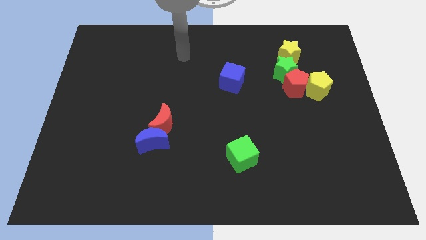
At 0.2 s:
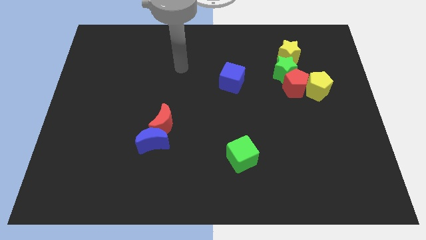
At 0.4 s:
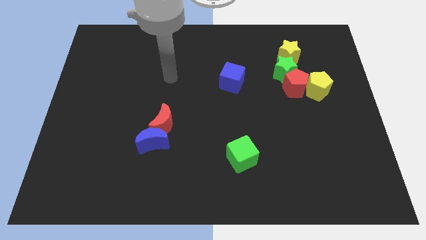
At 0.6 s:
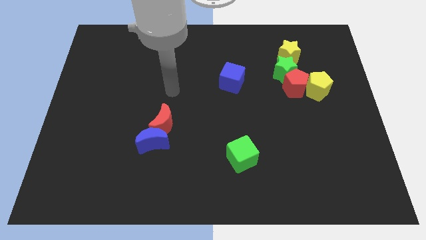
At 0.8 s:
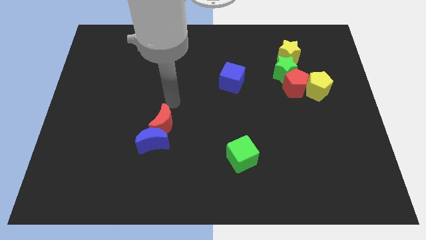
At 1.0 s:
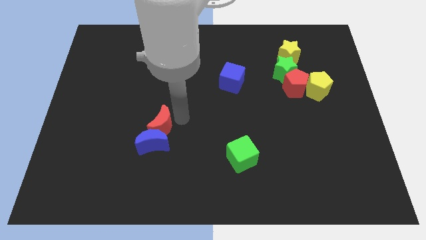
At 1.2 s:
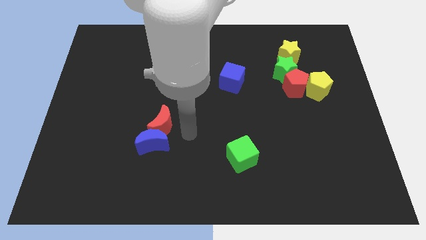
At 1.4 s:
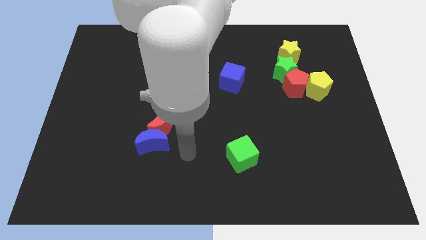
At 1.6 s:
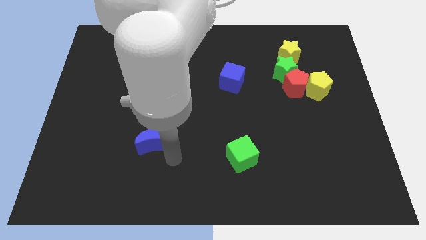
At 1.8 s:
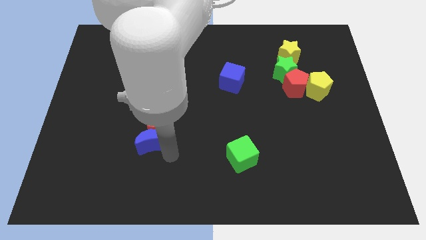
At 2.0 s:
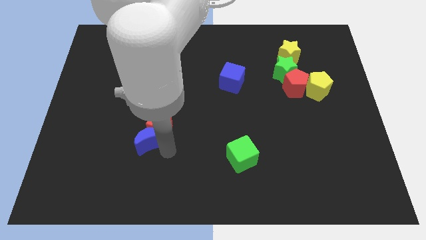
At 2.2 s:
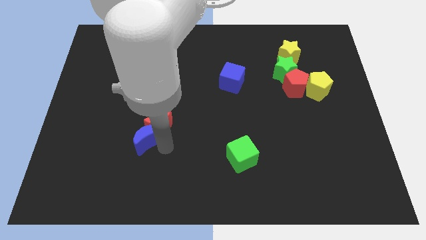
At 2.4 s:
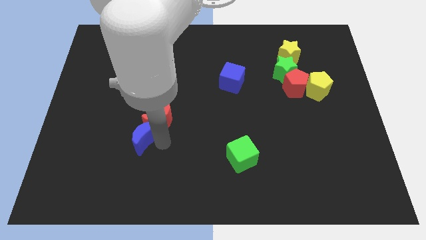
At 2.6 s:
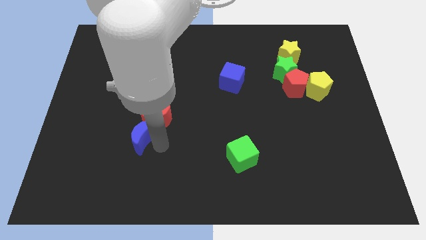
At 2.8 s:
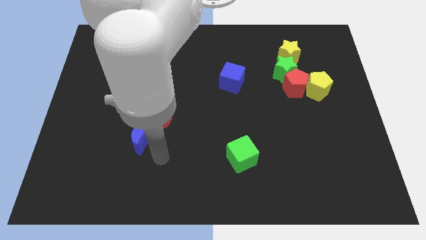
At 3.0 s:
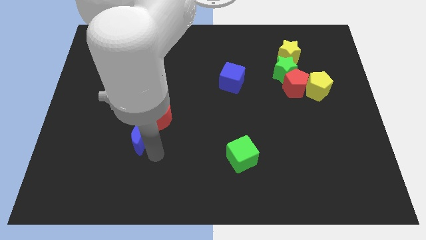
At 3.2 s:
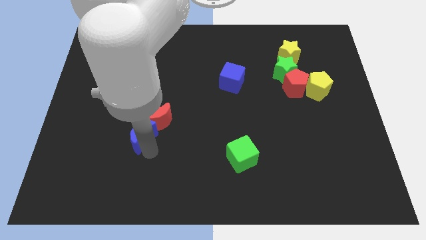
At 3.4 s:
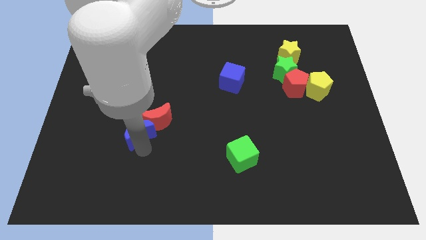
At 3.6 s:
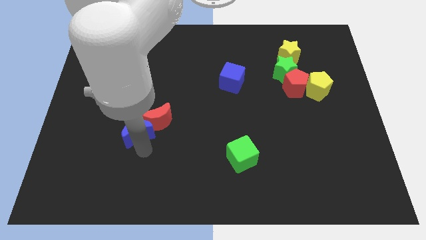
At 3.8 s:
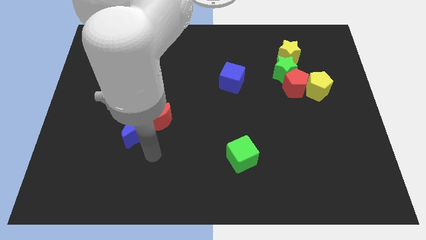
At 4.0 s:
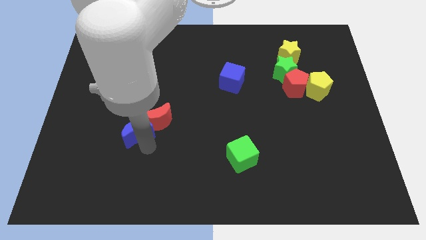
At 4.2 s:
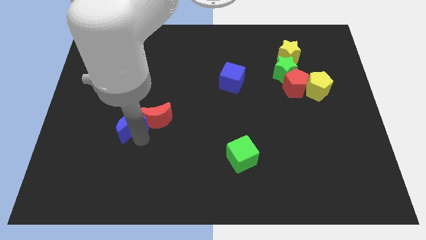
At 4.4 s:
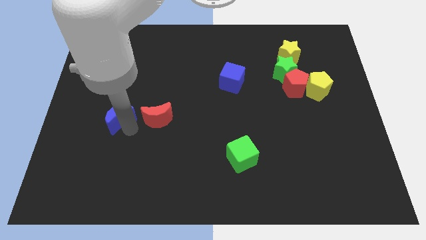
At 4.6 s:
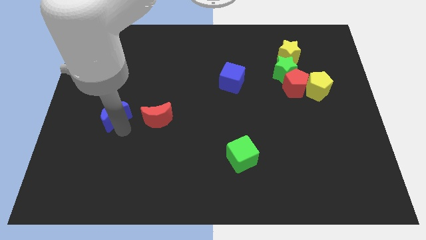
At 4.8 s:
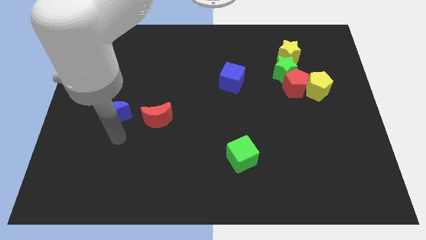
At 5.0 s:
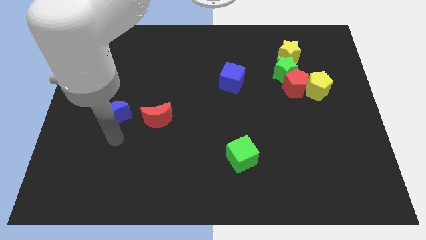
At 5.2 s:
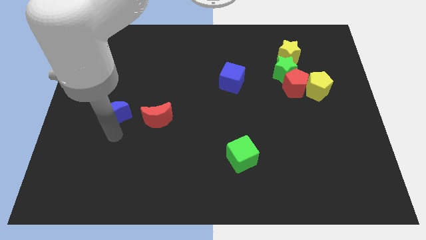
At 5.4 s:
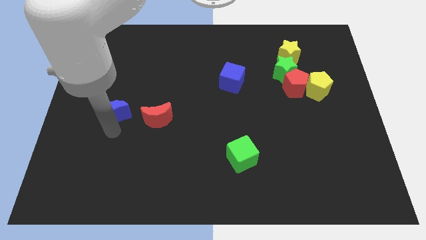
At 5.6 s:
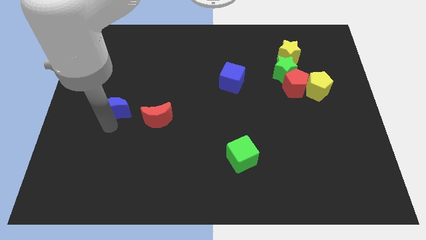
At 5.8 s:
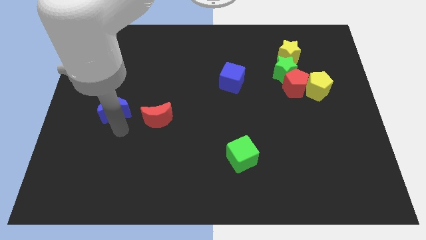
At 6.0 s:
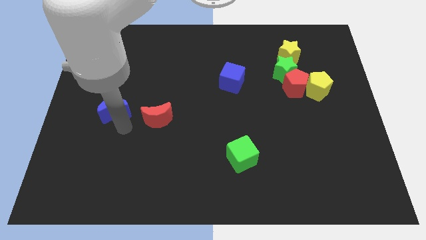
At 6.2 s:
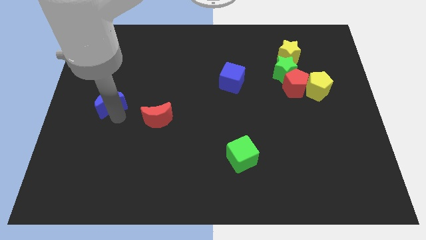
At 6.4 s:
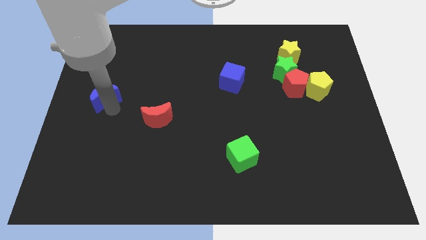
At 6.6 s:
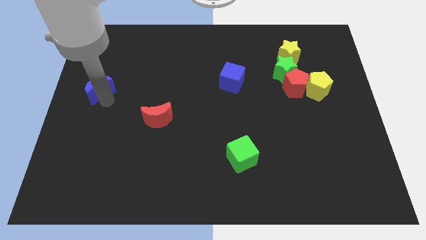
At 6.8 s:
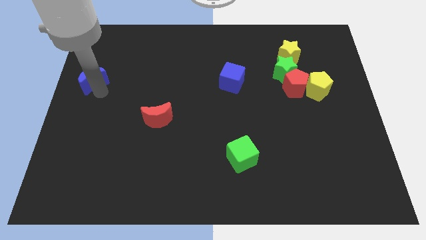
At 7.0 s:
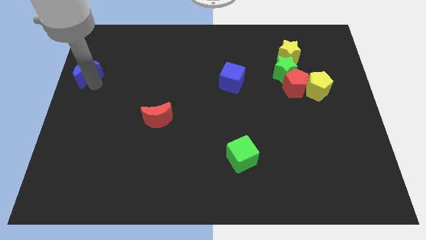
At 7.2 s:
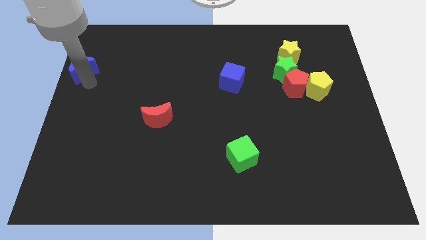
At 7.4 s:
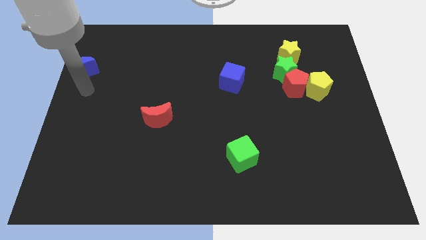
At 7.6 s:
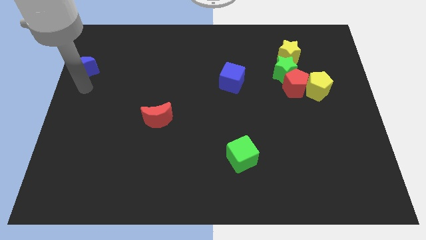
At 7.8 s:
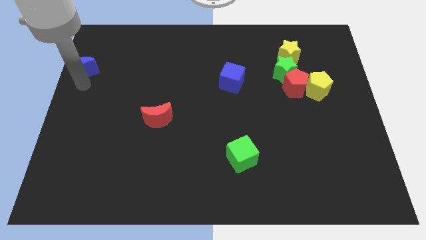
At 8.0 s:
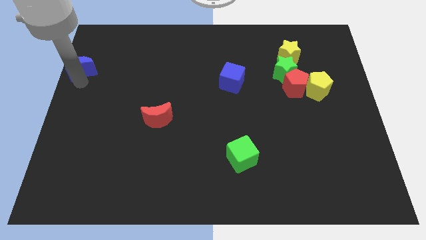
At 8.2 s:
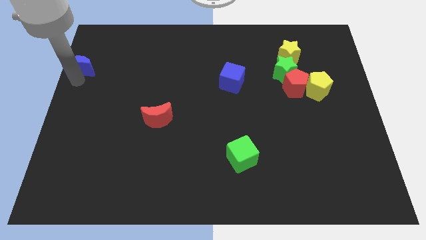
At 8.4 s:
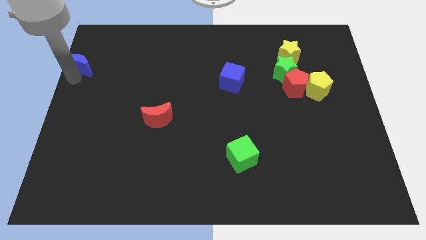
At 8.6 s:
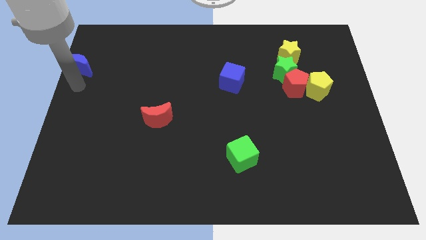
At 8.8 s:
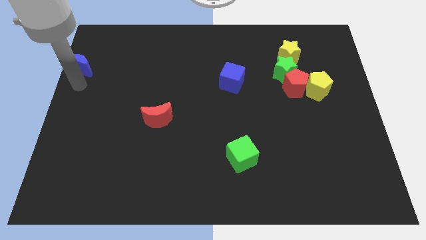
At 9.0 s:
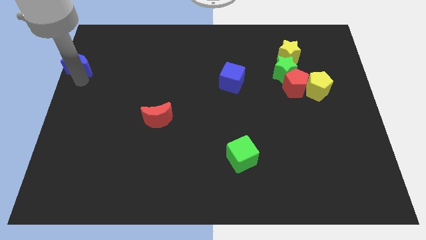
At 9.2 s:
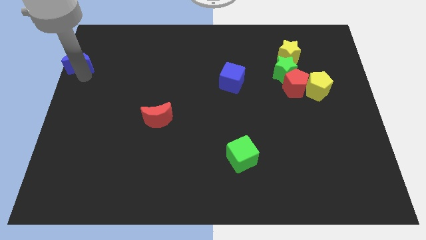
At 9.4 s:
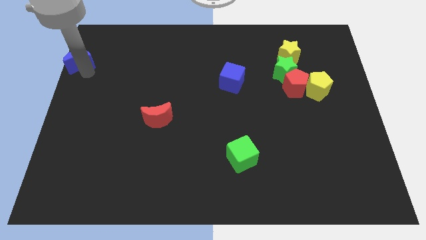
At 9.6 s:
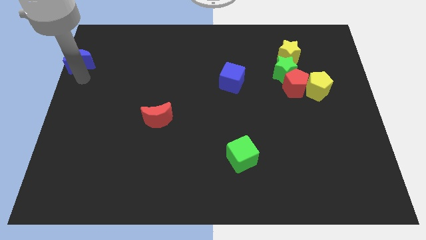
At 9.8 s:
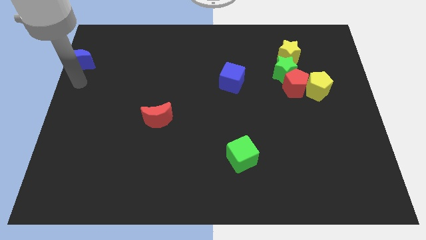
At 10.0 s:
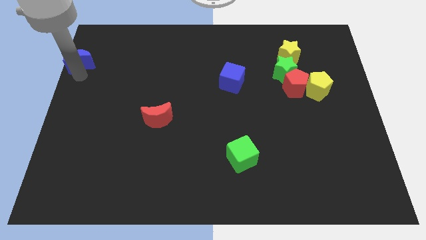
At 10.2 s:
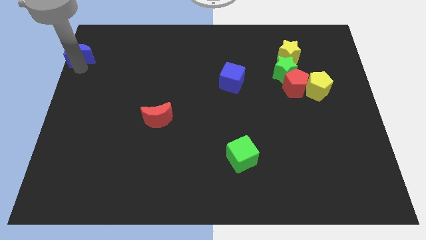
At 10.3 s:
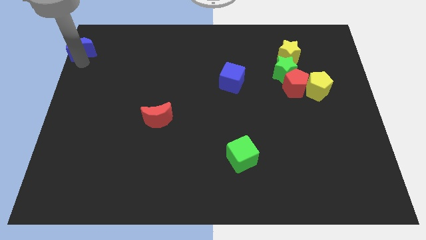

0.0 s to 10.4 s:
slide the blue moon to the top left corner
